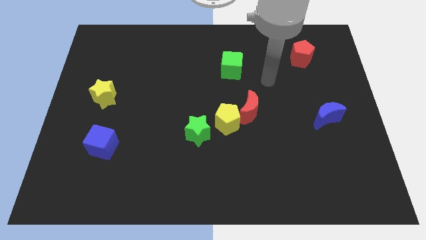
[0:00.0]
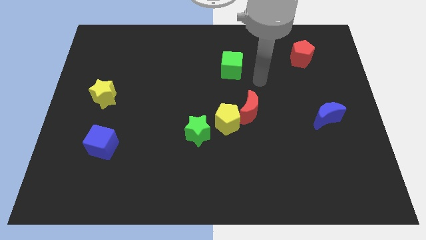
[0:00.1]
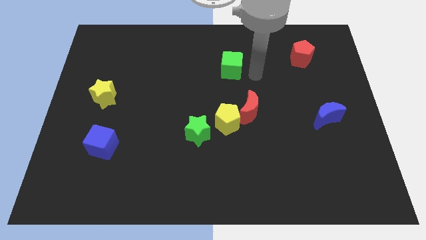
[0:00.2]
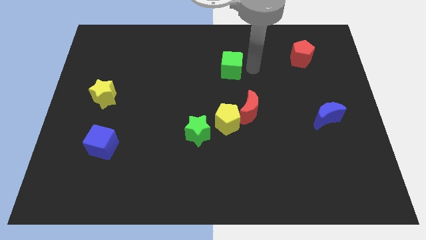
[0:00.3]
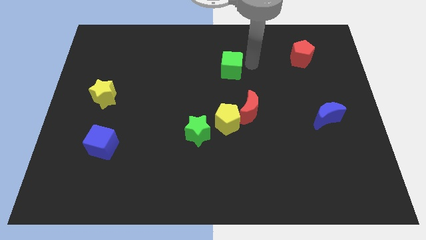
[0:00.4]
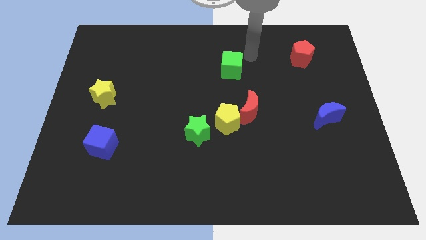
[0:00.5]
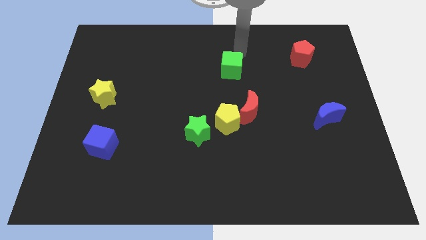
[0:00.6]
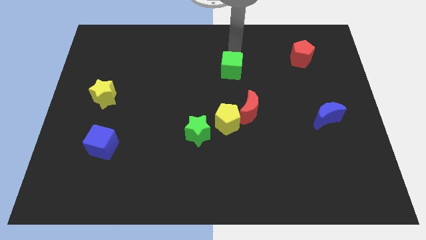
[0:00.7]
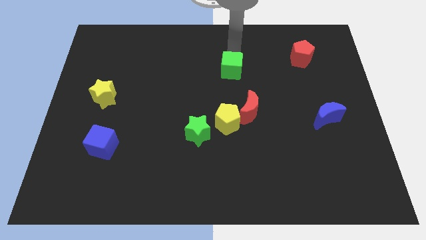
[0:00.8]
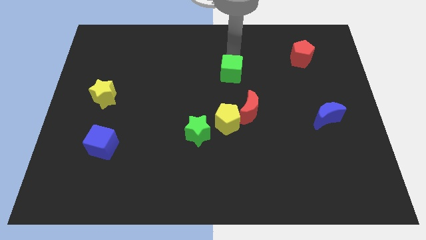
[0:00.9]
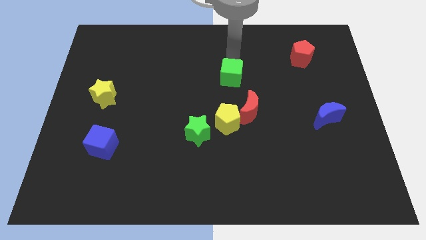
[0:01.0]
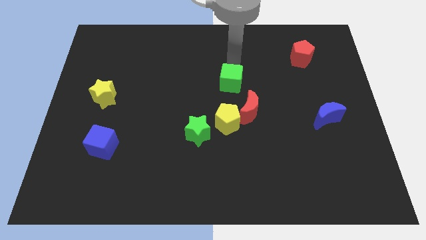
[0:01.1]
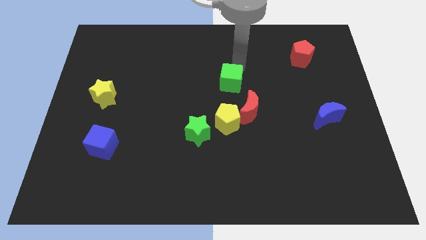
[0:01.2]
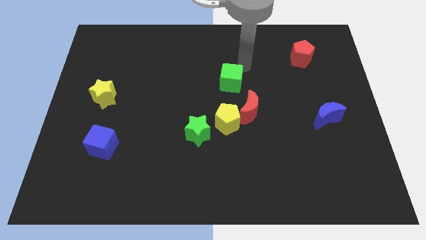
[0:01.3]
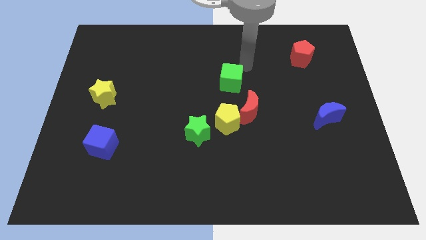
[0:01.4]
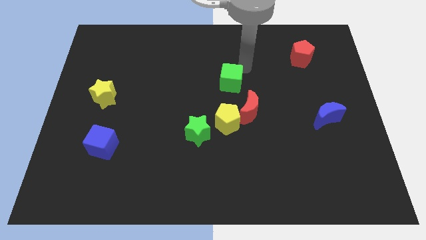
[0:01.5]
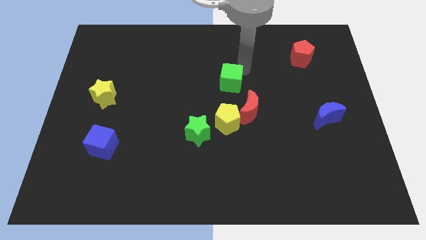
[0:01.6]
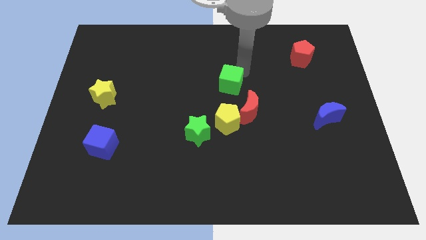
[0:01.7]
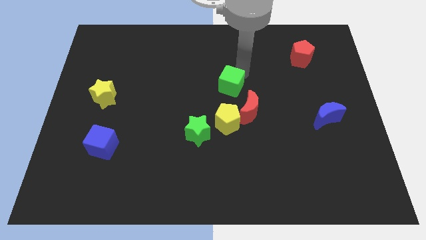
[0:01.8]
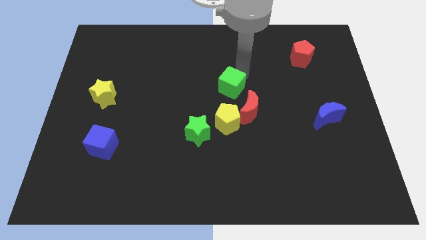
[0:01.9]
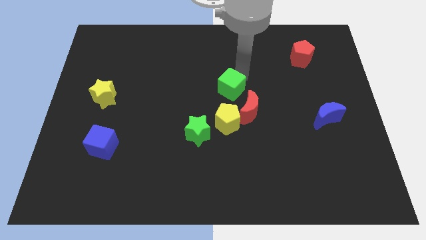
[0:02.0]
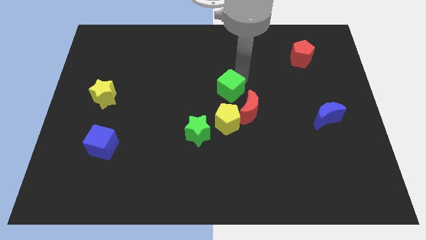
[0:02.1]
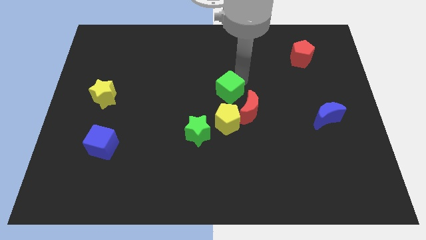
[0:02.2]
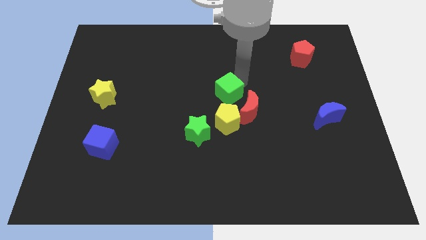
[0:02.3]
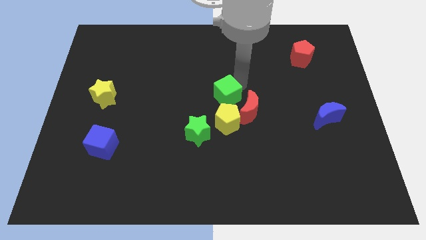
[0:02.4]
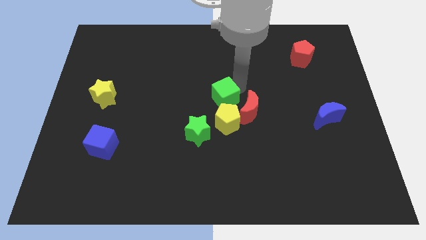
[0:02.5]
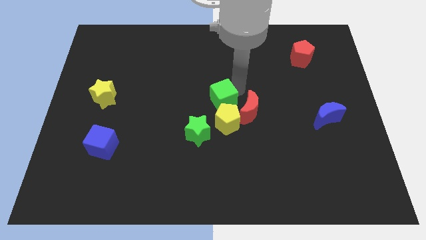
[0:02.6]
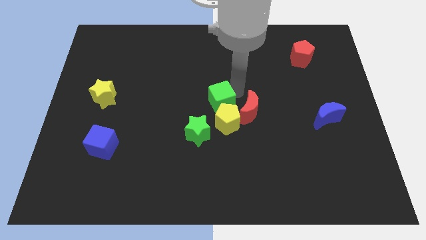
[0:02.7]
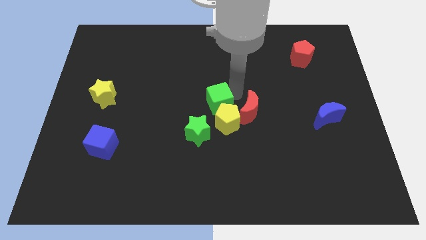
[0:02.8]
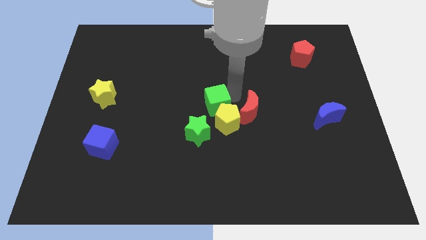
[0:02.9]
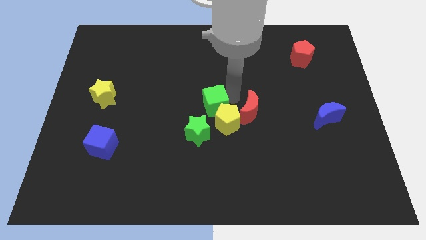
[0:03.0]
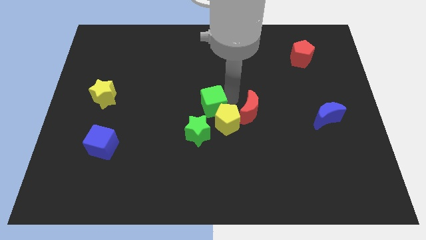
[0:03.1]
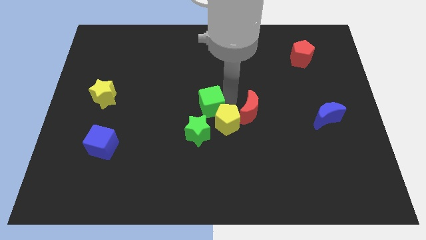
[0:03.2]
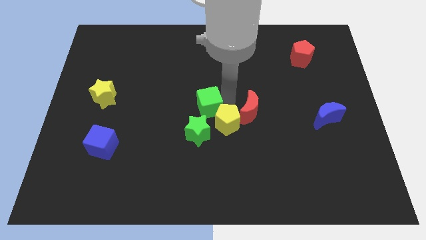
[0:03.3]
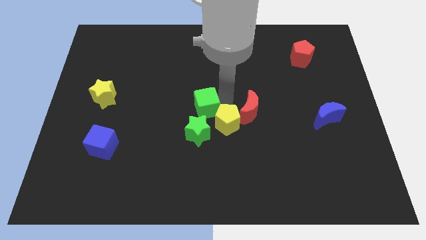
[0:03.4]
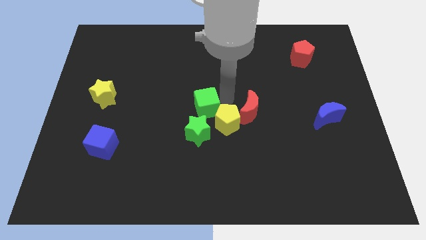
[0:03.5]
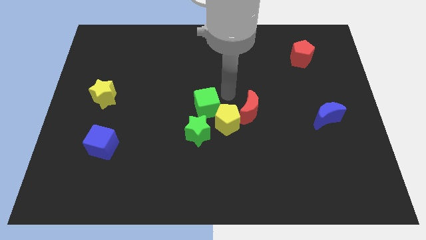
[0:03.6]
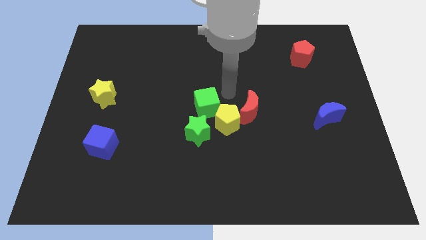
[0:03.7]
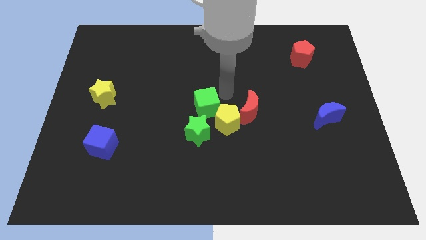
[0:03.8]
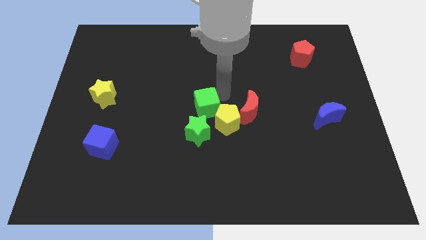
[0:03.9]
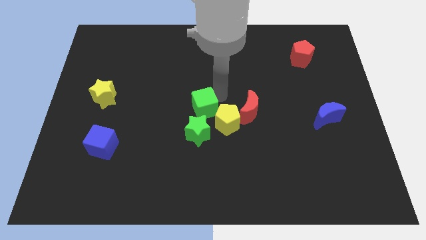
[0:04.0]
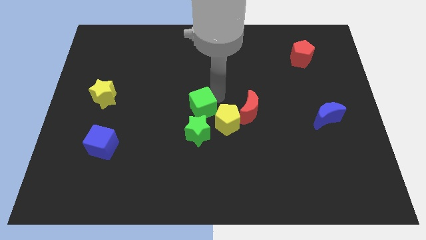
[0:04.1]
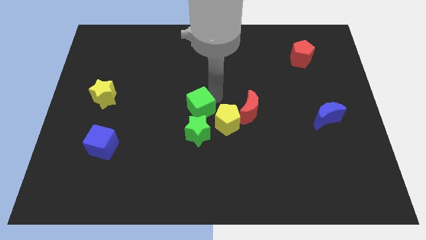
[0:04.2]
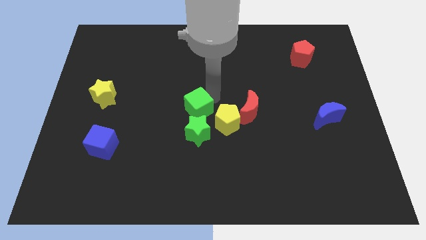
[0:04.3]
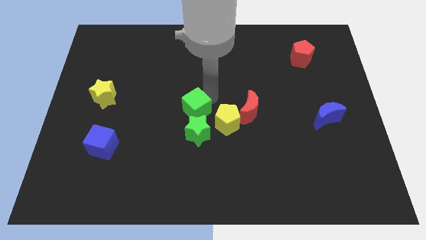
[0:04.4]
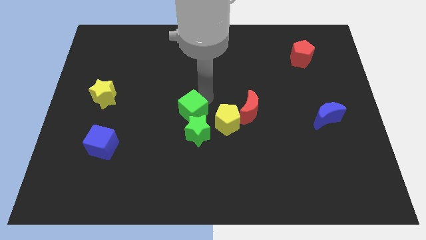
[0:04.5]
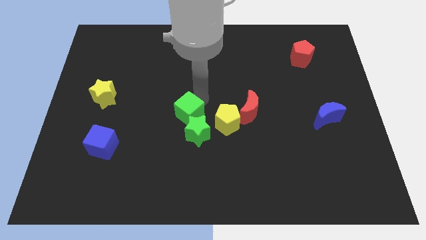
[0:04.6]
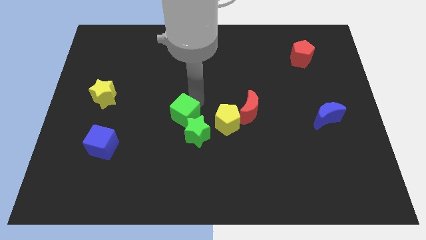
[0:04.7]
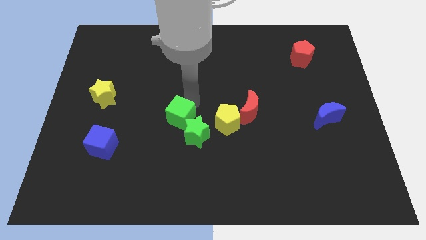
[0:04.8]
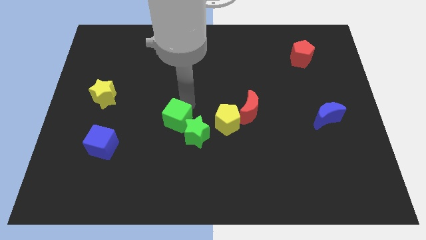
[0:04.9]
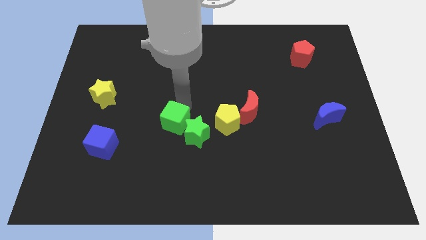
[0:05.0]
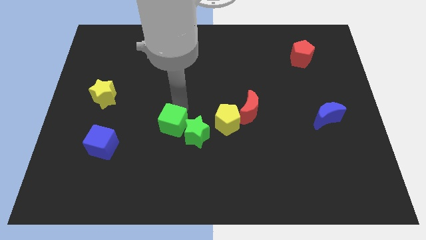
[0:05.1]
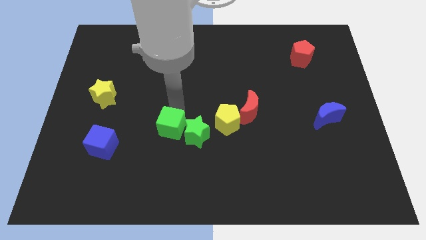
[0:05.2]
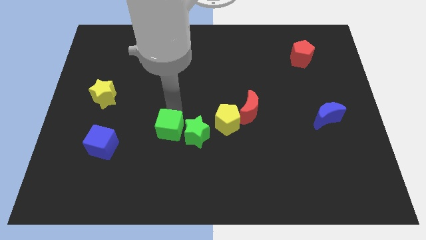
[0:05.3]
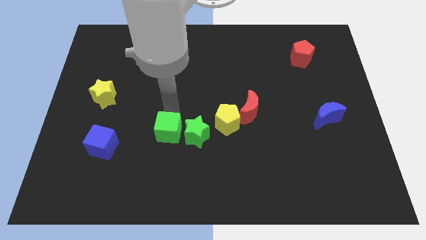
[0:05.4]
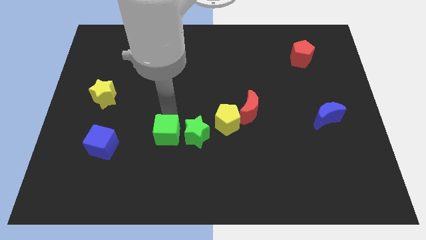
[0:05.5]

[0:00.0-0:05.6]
move the green cube diagonally down and to the left of the green star

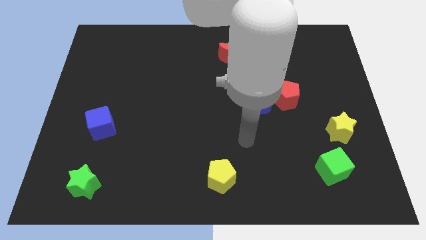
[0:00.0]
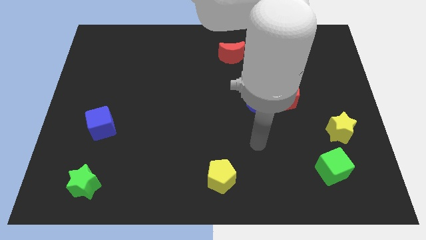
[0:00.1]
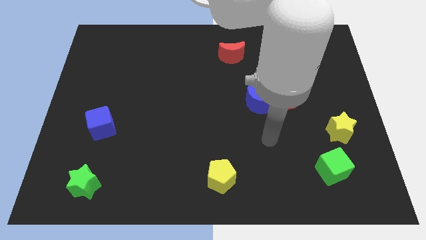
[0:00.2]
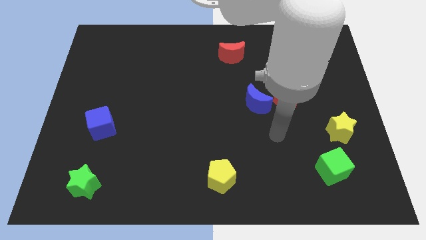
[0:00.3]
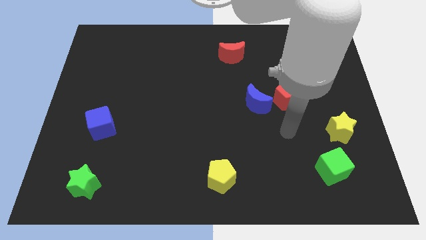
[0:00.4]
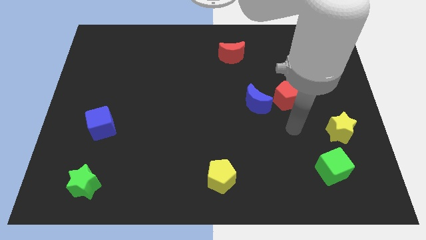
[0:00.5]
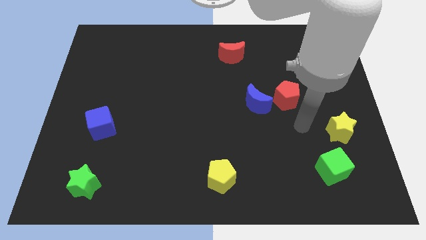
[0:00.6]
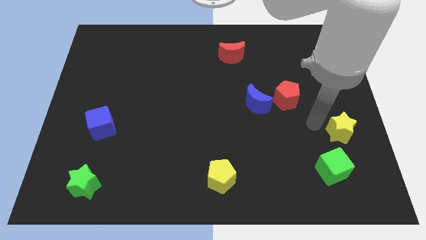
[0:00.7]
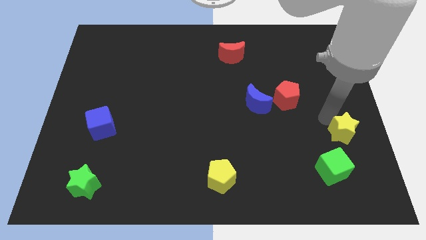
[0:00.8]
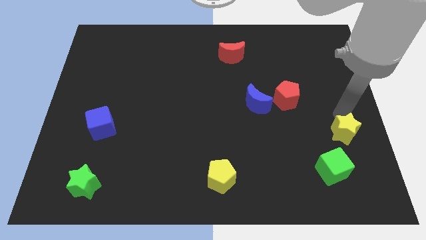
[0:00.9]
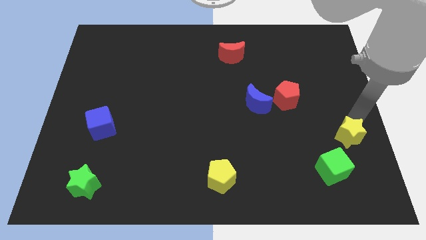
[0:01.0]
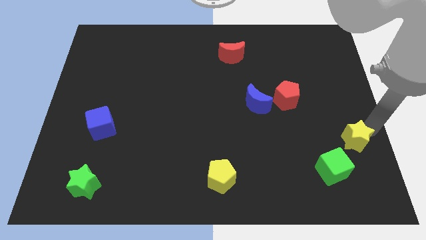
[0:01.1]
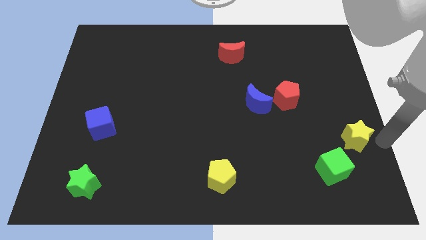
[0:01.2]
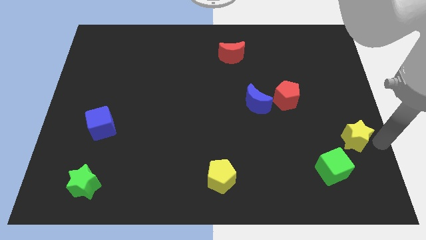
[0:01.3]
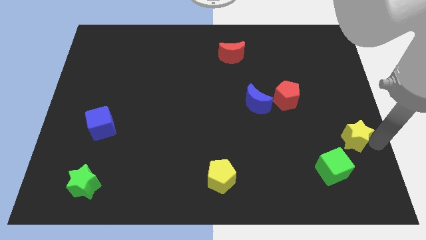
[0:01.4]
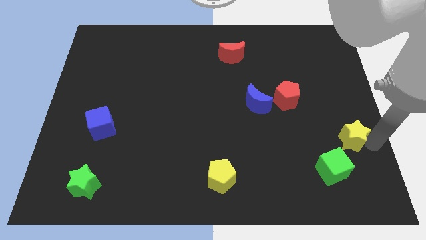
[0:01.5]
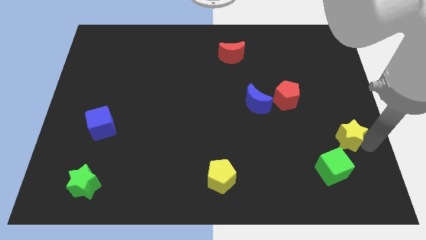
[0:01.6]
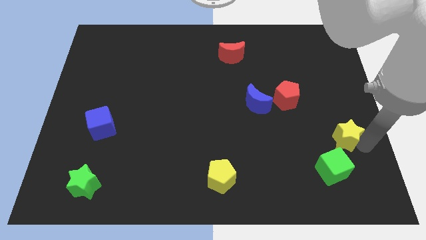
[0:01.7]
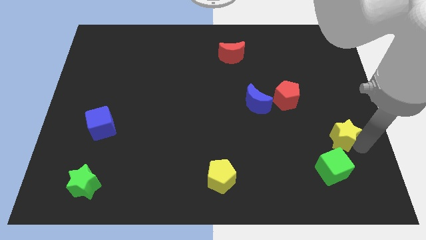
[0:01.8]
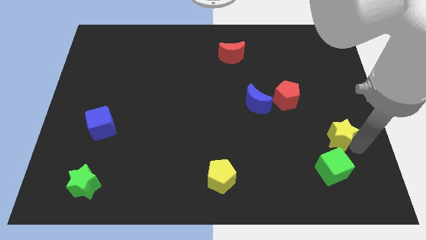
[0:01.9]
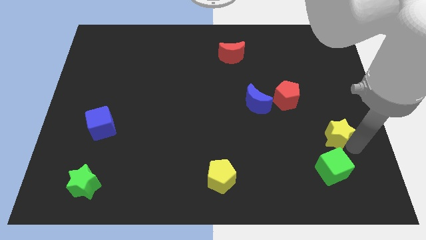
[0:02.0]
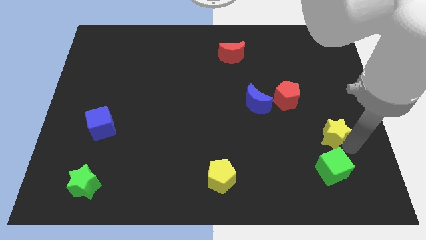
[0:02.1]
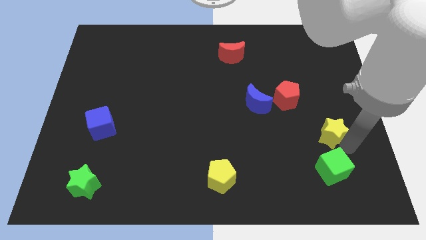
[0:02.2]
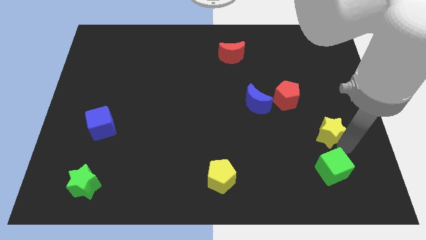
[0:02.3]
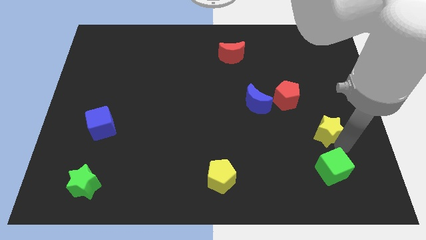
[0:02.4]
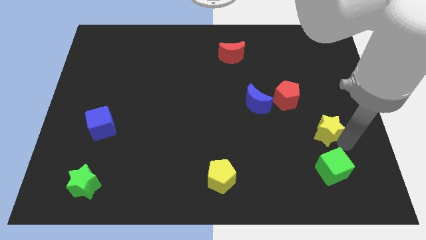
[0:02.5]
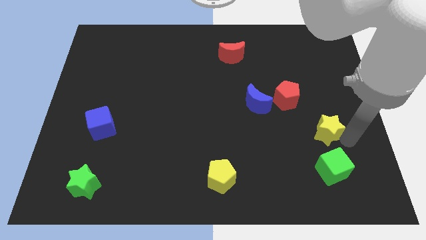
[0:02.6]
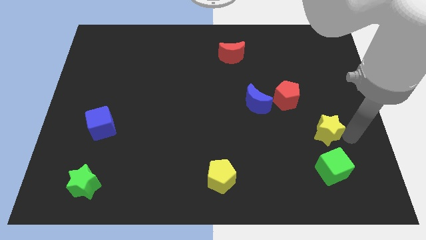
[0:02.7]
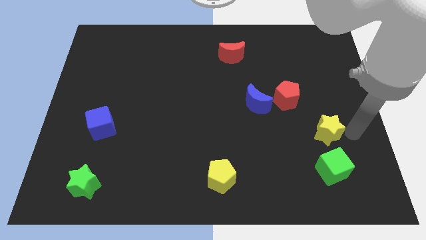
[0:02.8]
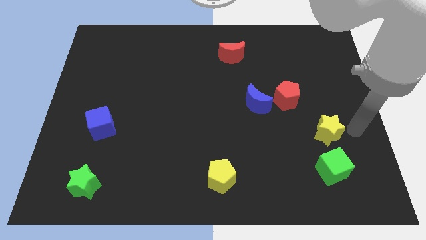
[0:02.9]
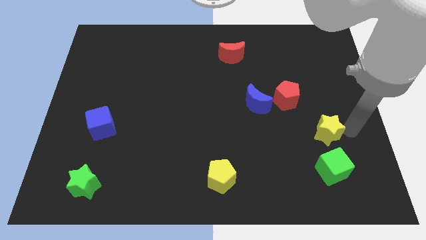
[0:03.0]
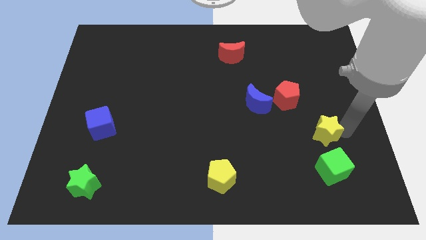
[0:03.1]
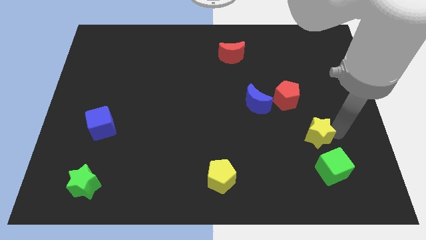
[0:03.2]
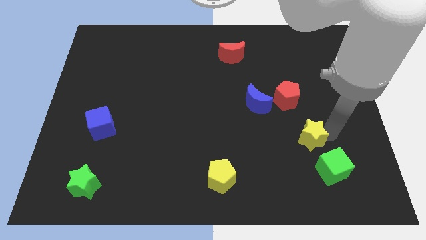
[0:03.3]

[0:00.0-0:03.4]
move the yellow star to the bottom of the red pentagon
